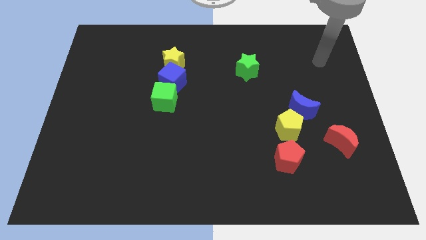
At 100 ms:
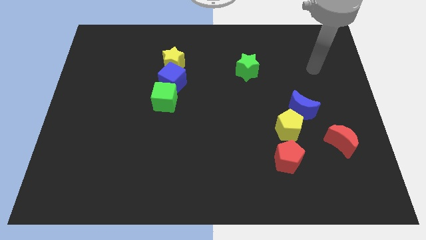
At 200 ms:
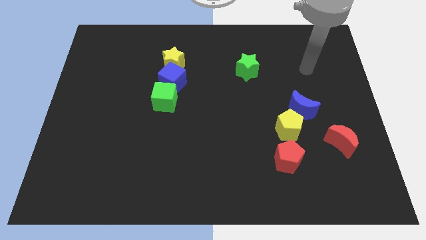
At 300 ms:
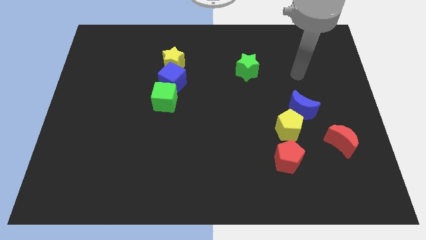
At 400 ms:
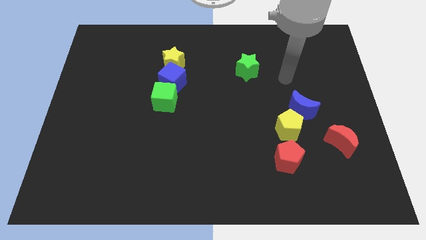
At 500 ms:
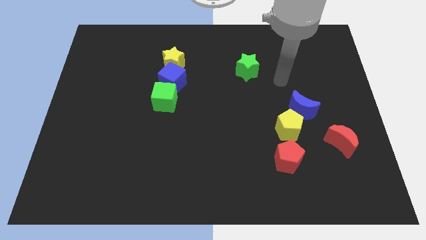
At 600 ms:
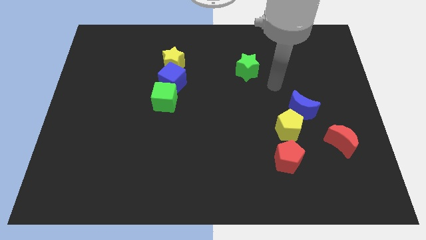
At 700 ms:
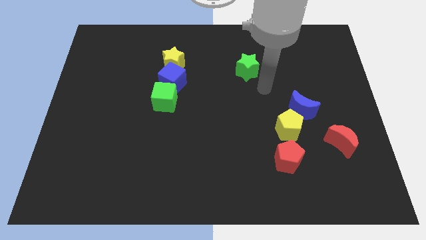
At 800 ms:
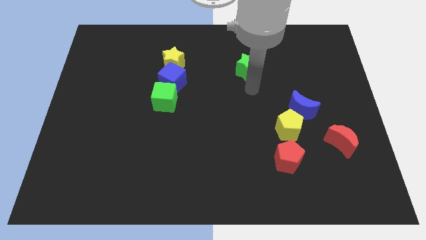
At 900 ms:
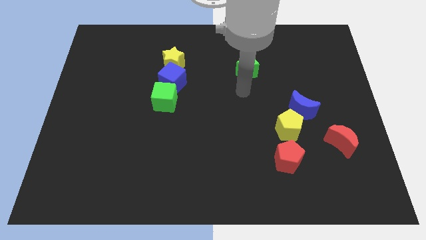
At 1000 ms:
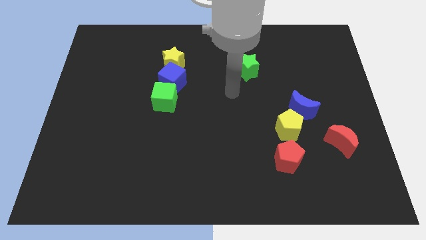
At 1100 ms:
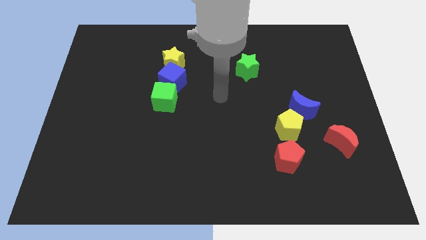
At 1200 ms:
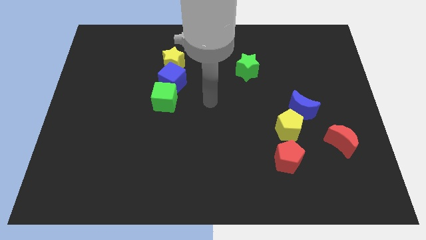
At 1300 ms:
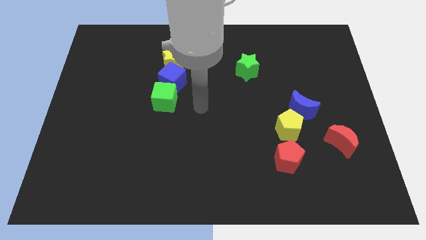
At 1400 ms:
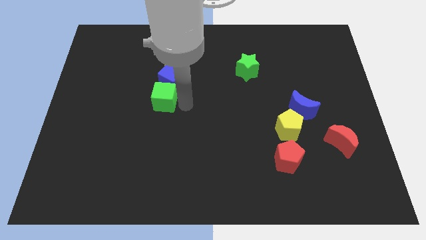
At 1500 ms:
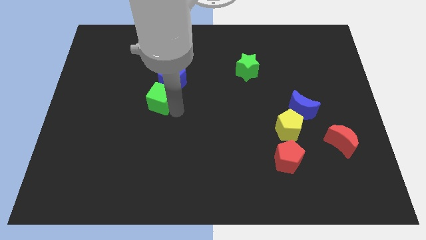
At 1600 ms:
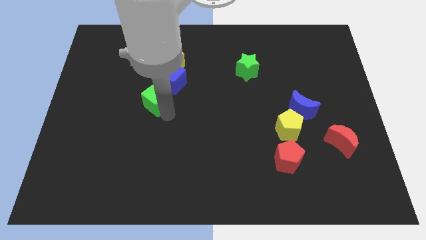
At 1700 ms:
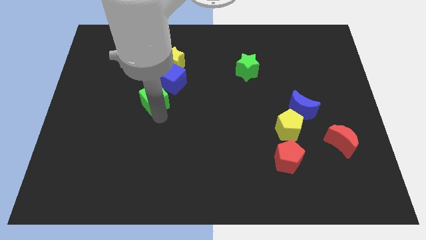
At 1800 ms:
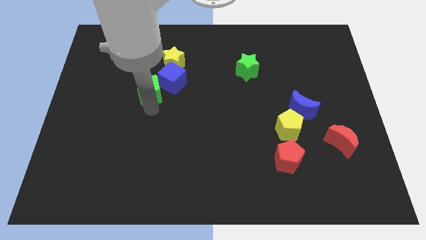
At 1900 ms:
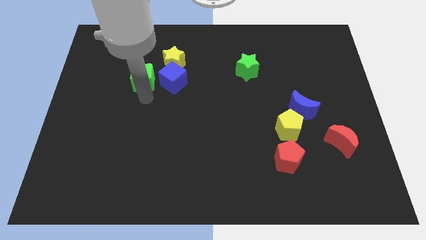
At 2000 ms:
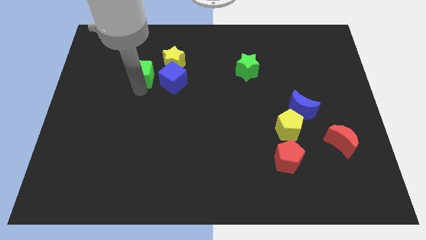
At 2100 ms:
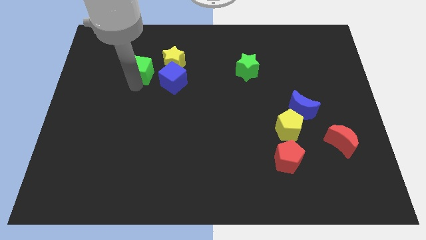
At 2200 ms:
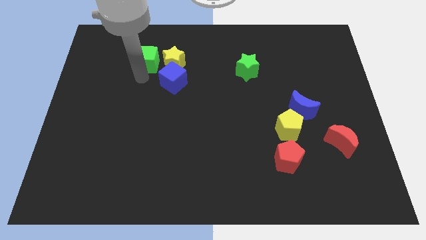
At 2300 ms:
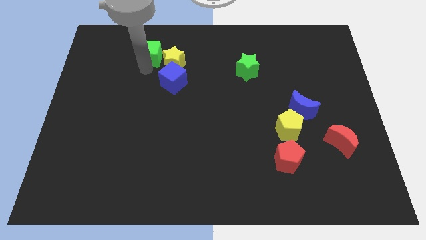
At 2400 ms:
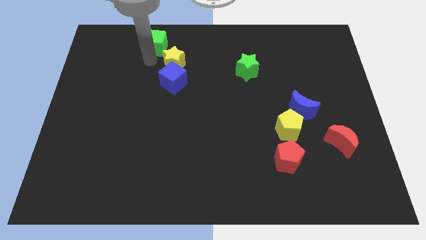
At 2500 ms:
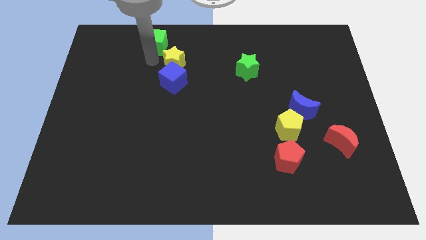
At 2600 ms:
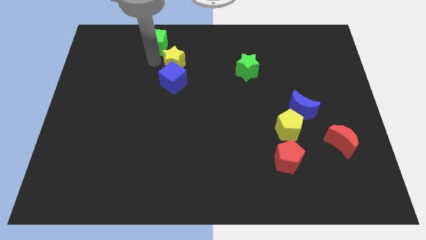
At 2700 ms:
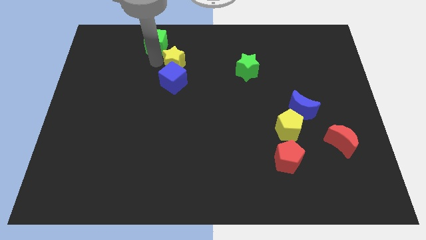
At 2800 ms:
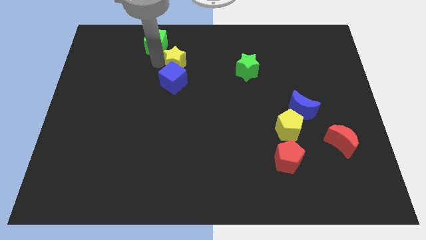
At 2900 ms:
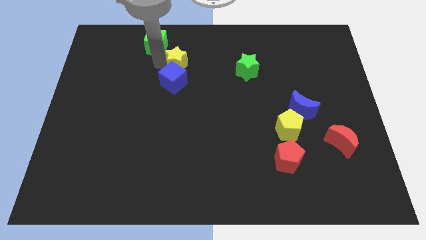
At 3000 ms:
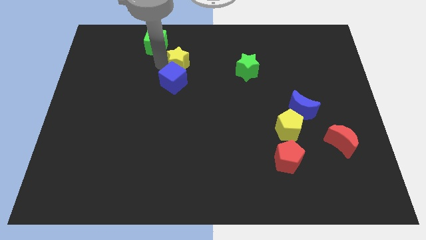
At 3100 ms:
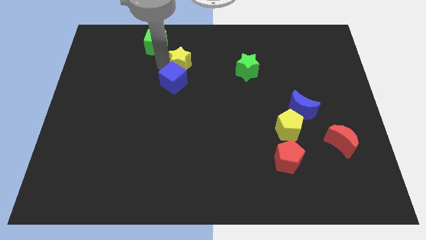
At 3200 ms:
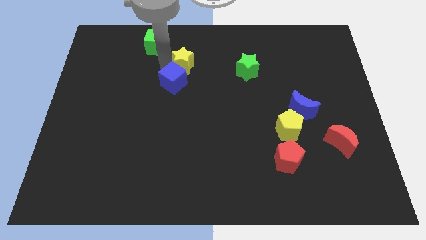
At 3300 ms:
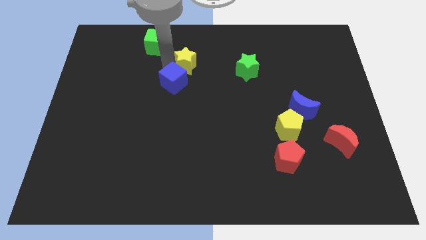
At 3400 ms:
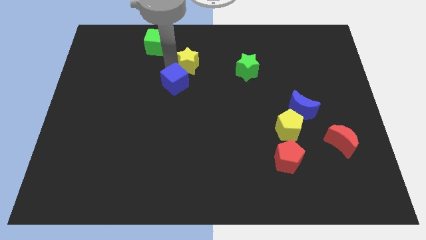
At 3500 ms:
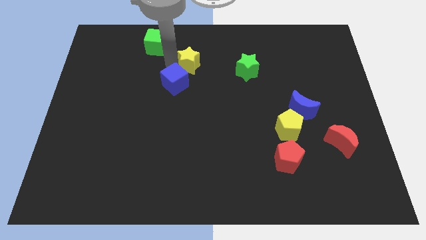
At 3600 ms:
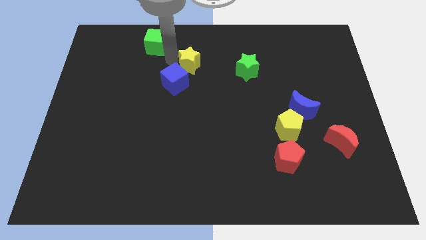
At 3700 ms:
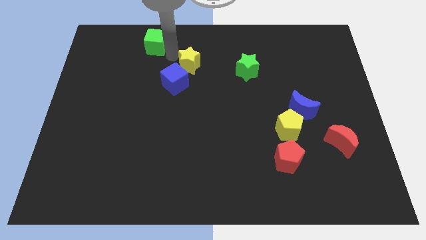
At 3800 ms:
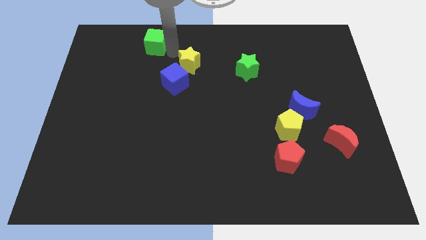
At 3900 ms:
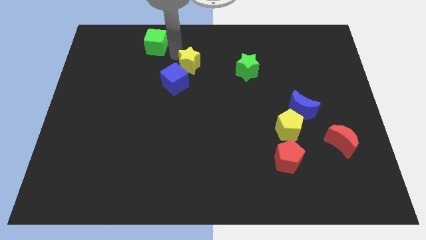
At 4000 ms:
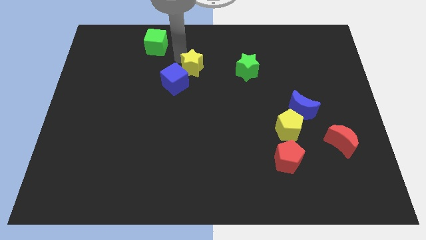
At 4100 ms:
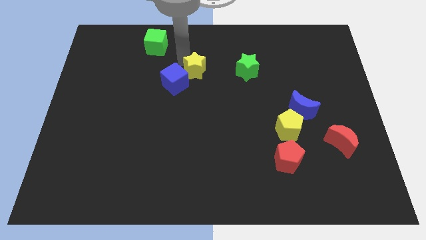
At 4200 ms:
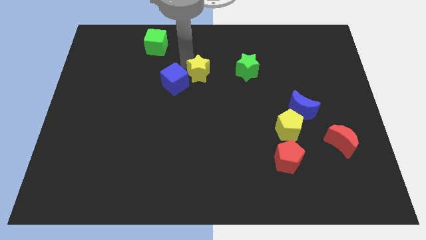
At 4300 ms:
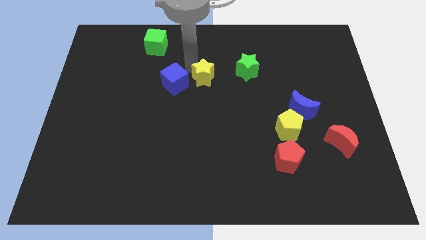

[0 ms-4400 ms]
slide the yellow star downwards and right diagonally a bit

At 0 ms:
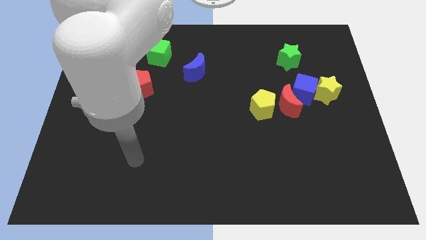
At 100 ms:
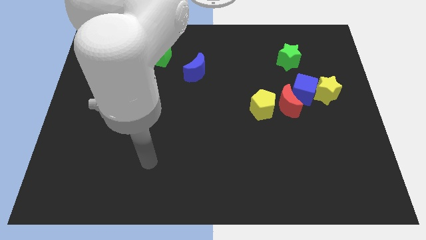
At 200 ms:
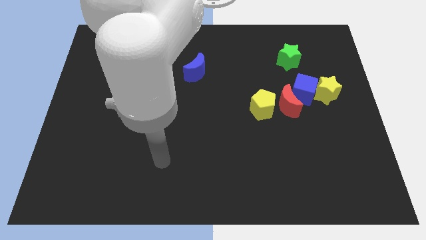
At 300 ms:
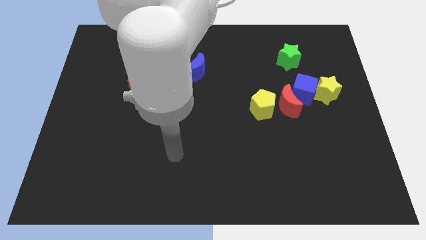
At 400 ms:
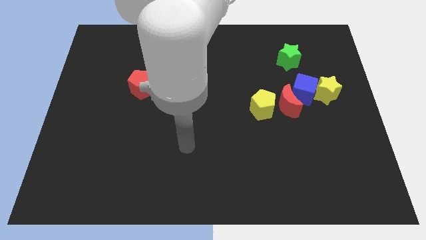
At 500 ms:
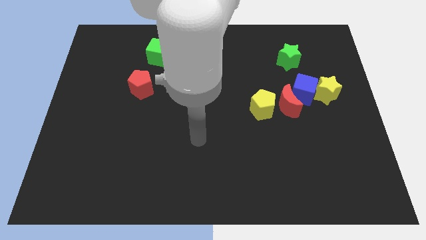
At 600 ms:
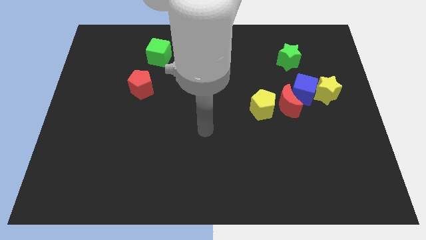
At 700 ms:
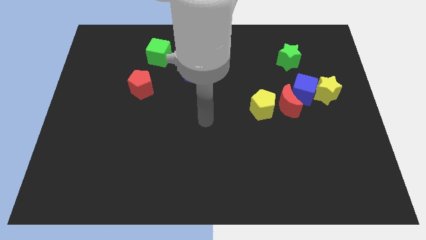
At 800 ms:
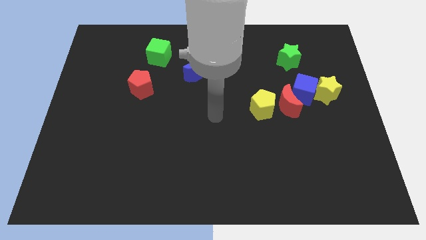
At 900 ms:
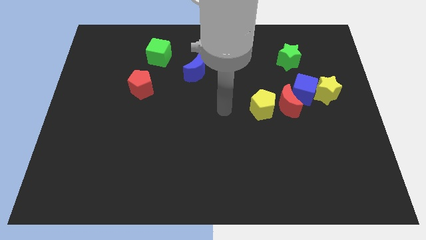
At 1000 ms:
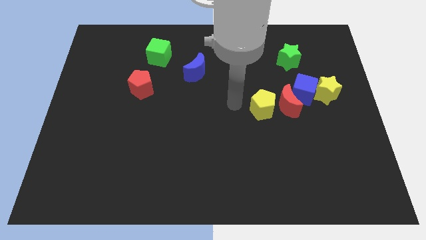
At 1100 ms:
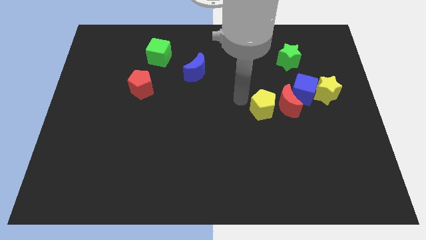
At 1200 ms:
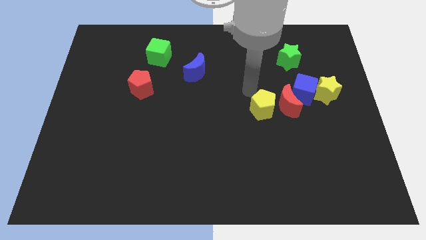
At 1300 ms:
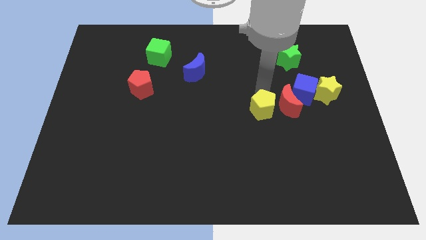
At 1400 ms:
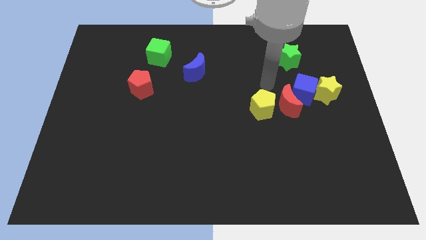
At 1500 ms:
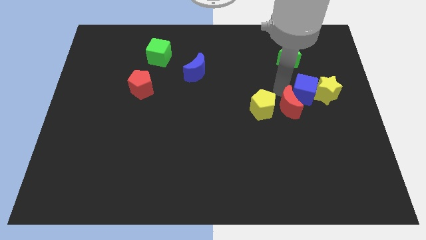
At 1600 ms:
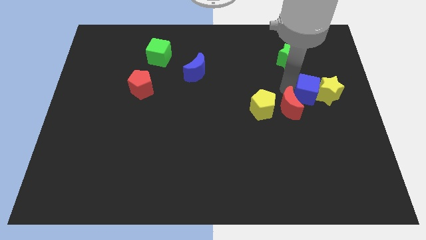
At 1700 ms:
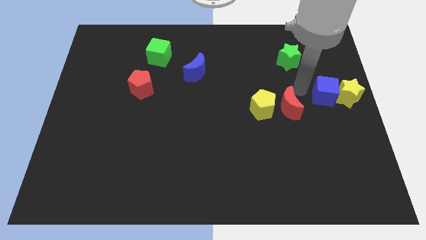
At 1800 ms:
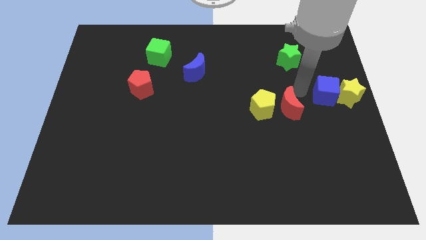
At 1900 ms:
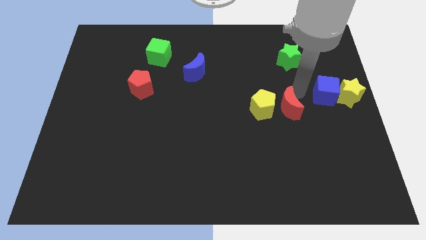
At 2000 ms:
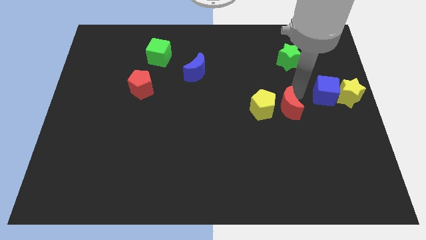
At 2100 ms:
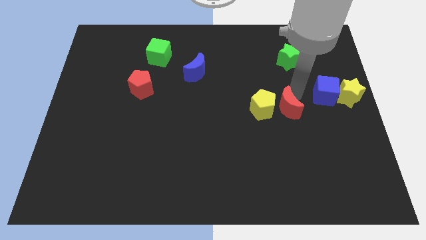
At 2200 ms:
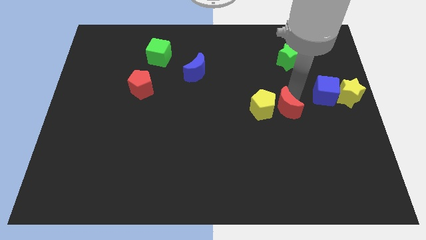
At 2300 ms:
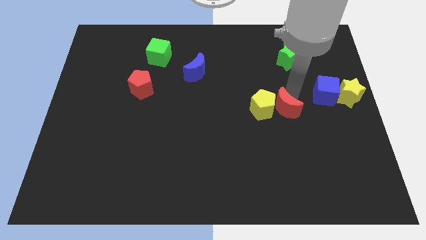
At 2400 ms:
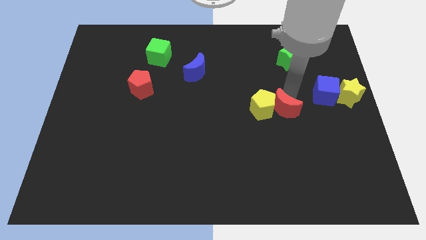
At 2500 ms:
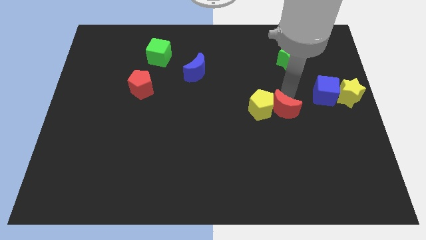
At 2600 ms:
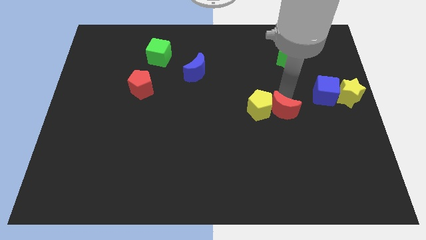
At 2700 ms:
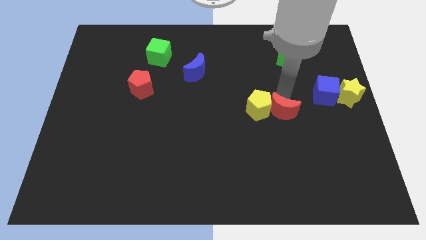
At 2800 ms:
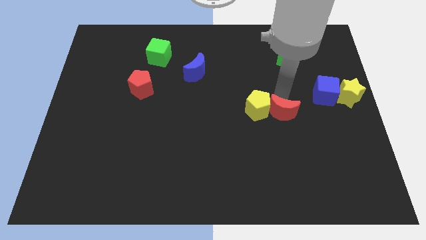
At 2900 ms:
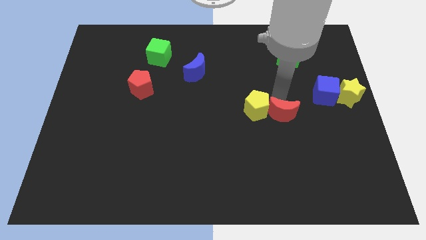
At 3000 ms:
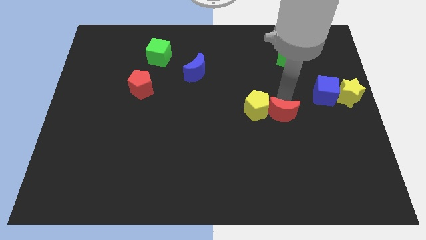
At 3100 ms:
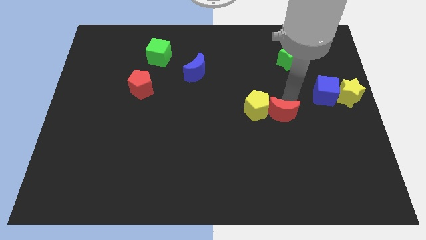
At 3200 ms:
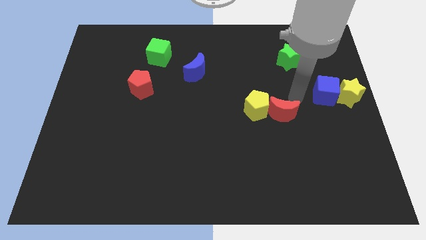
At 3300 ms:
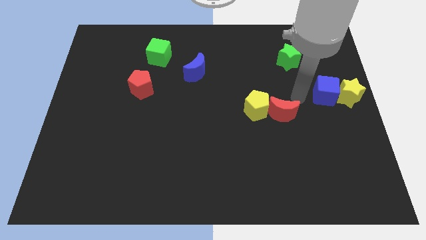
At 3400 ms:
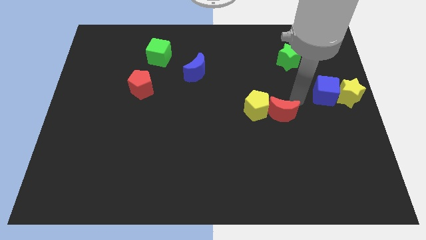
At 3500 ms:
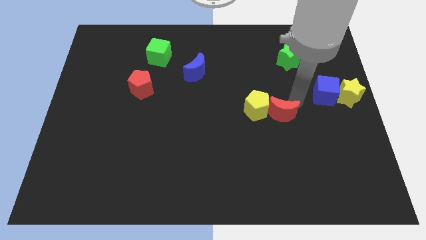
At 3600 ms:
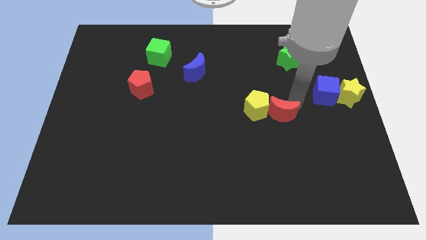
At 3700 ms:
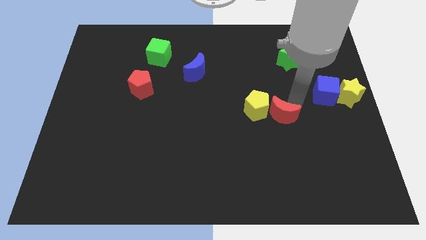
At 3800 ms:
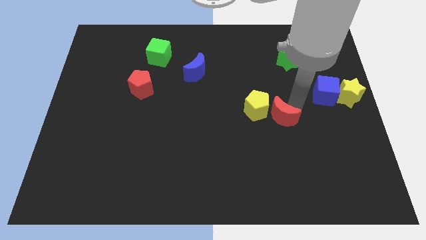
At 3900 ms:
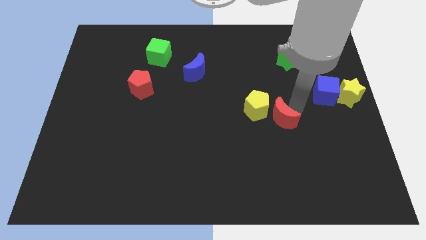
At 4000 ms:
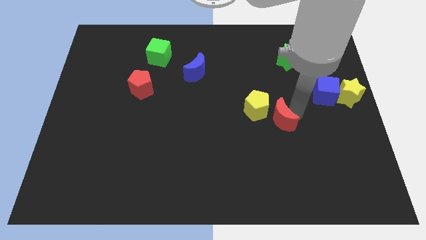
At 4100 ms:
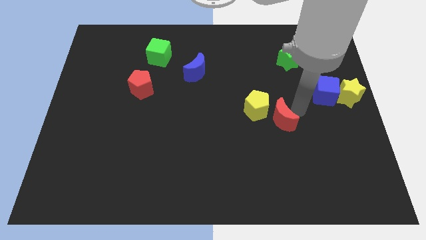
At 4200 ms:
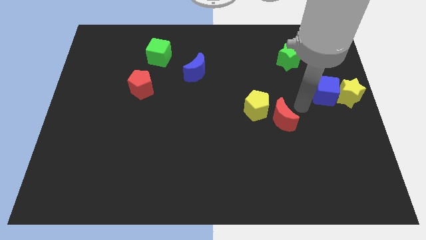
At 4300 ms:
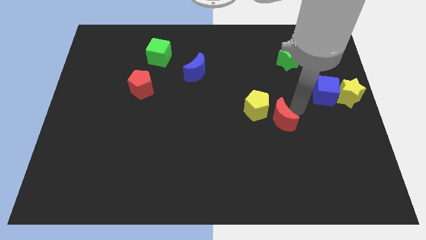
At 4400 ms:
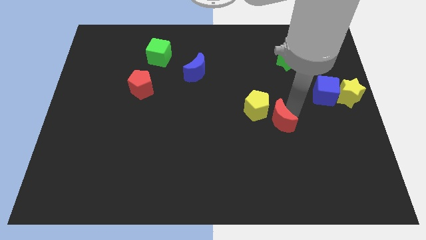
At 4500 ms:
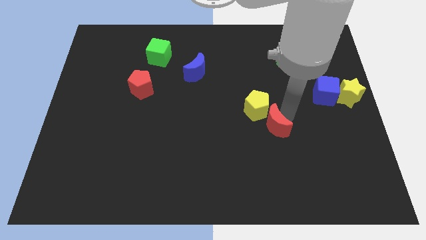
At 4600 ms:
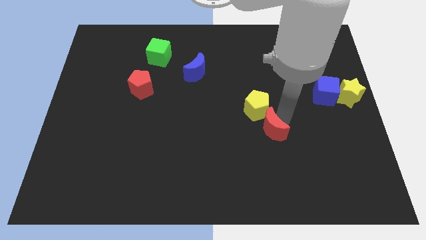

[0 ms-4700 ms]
push the red moon down and left somewhat
